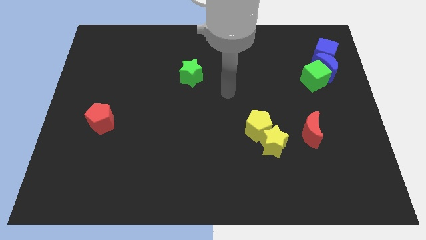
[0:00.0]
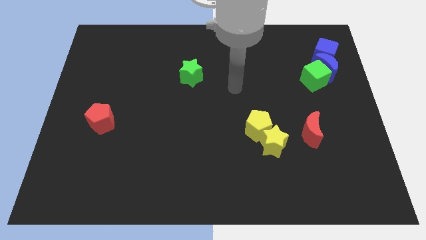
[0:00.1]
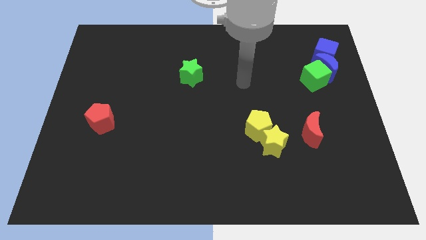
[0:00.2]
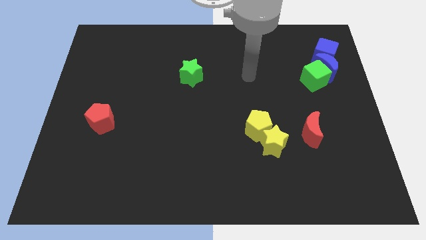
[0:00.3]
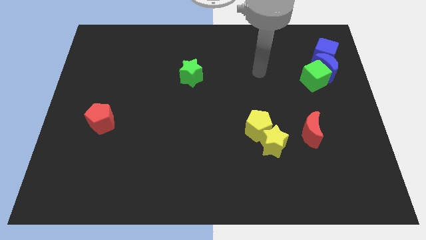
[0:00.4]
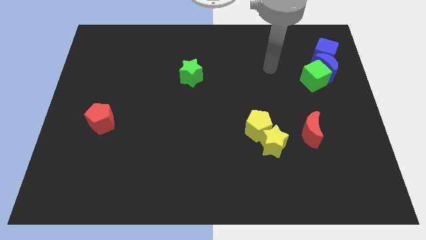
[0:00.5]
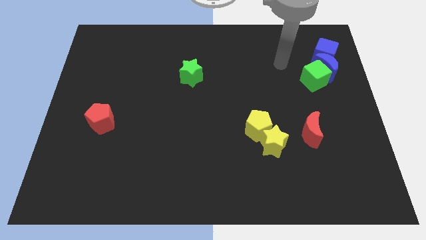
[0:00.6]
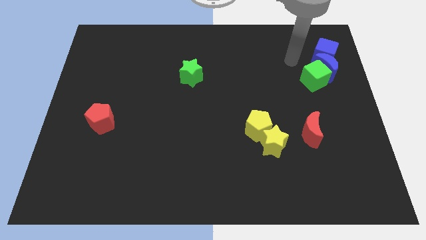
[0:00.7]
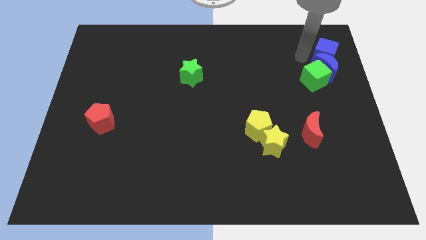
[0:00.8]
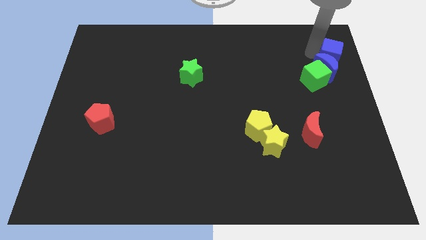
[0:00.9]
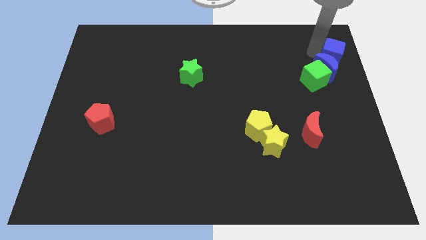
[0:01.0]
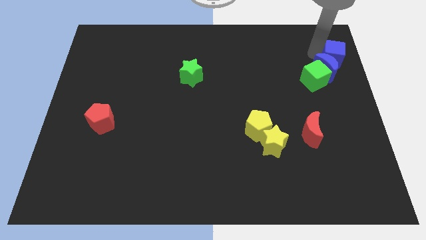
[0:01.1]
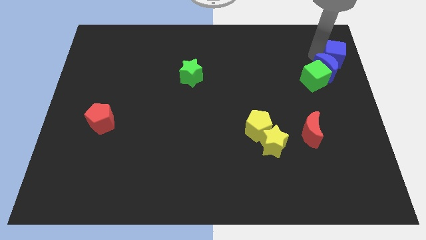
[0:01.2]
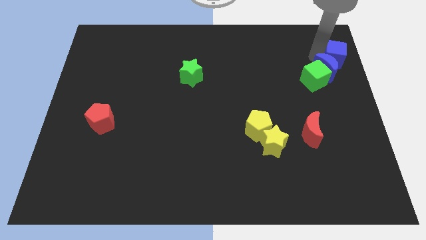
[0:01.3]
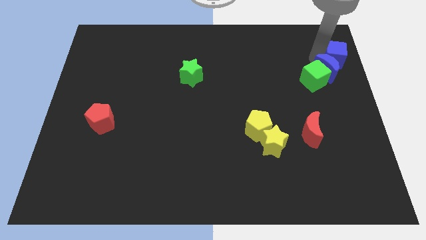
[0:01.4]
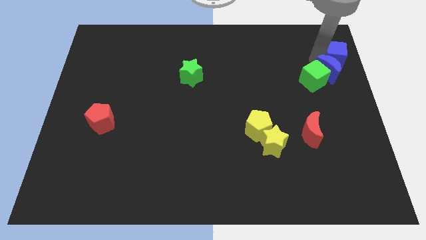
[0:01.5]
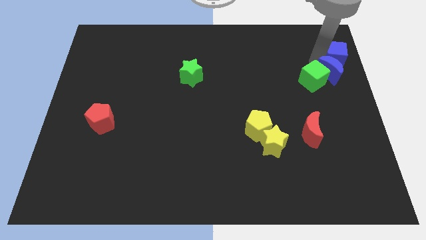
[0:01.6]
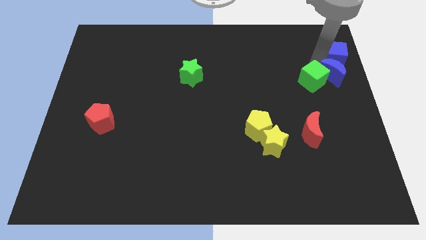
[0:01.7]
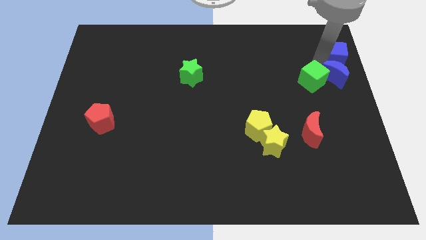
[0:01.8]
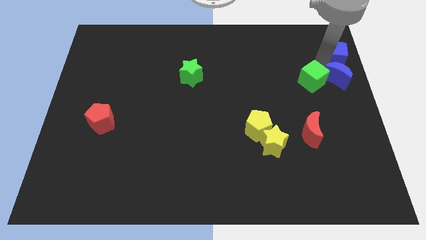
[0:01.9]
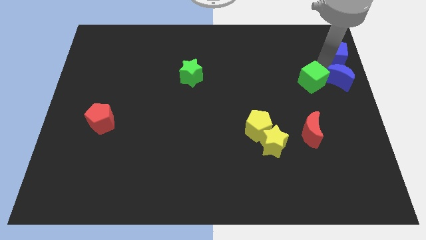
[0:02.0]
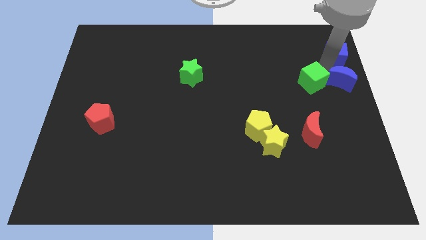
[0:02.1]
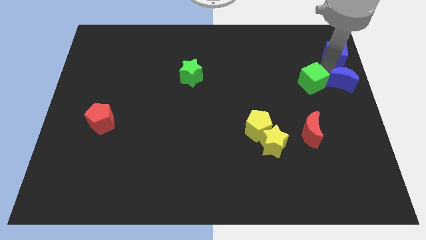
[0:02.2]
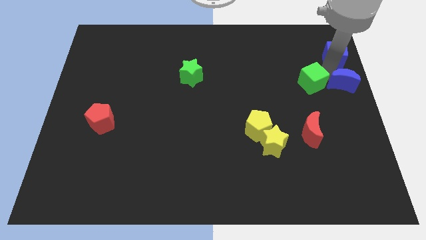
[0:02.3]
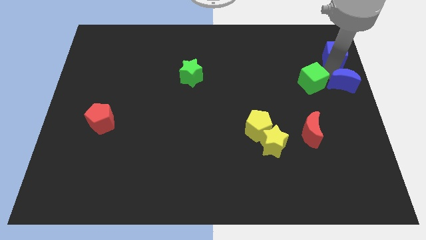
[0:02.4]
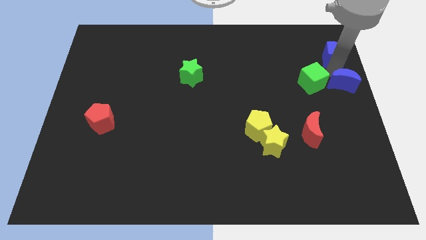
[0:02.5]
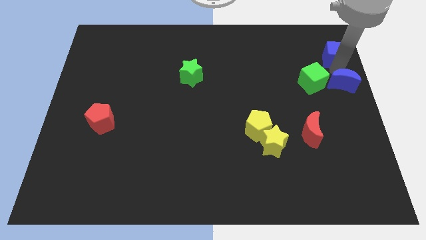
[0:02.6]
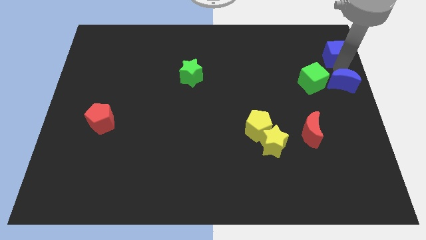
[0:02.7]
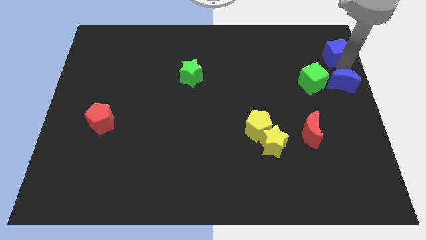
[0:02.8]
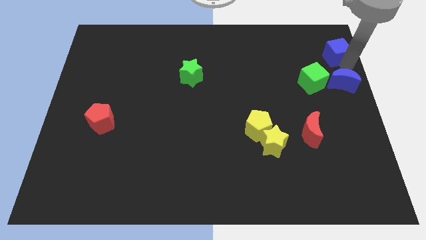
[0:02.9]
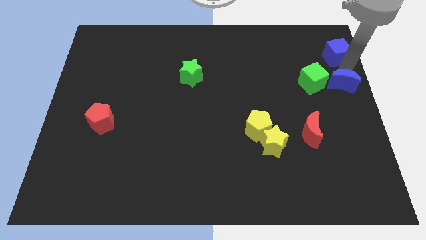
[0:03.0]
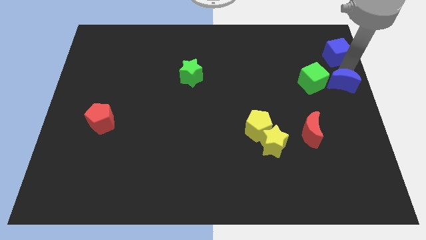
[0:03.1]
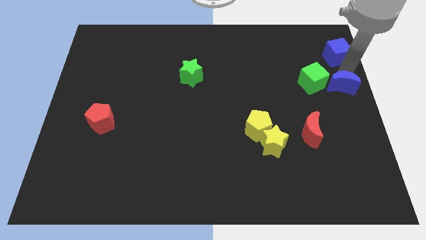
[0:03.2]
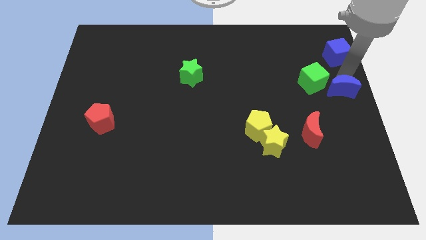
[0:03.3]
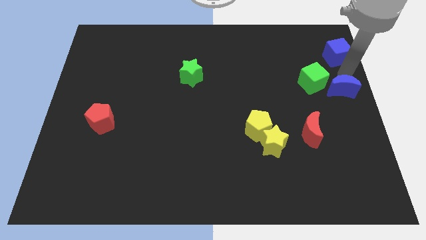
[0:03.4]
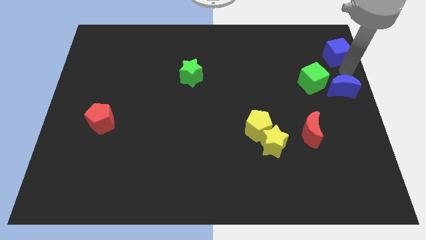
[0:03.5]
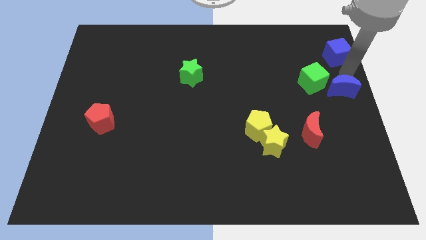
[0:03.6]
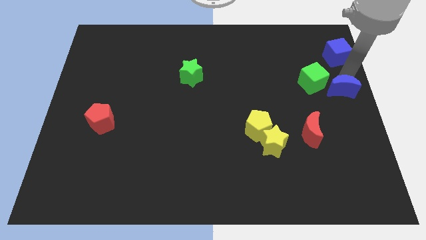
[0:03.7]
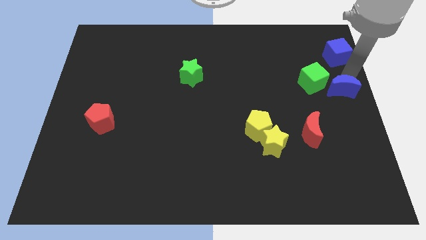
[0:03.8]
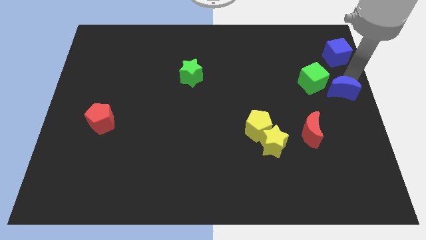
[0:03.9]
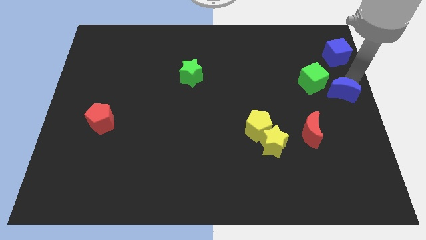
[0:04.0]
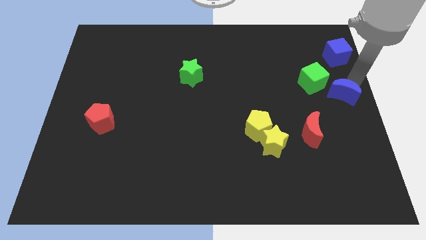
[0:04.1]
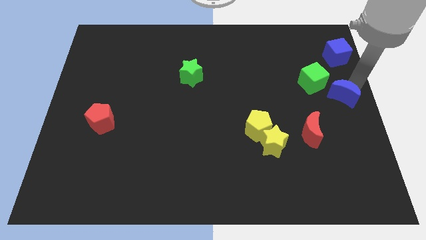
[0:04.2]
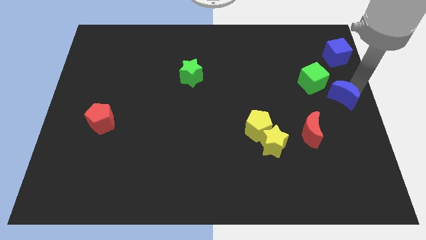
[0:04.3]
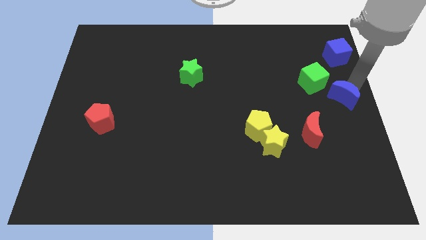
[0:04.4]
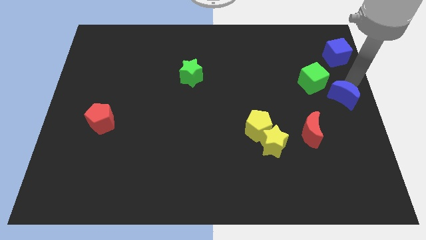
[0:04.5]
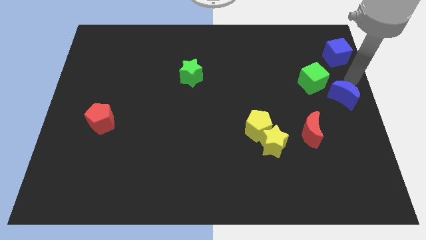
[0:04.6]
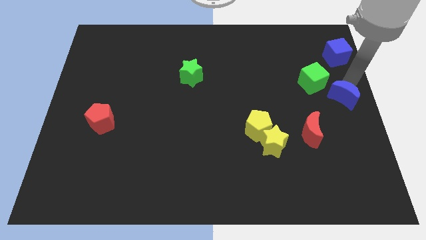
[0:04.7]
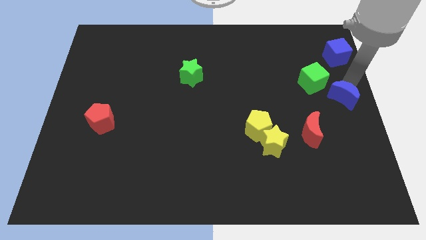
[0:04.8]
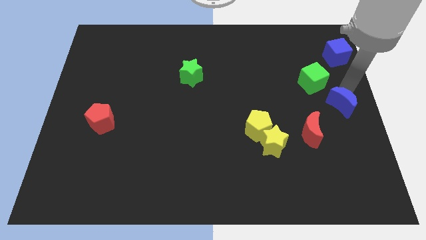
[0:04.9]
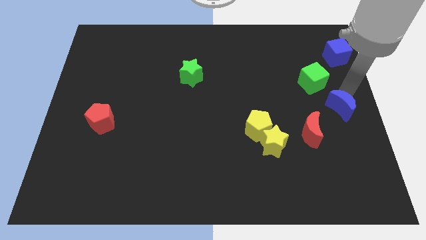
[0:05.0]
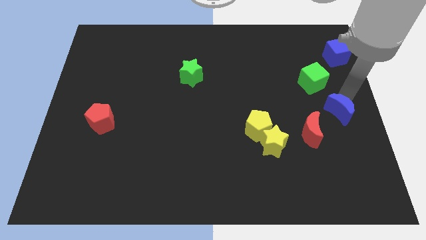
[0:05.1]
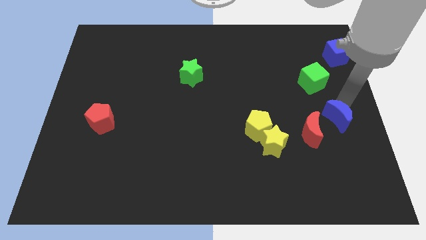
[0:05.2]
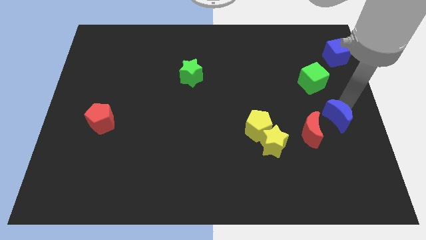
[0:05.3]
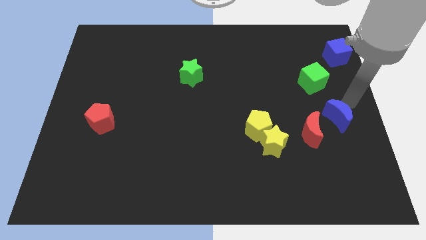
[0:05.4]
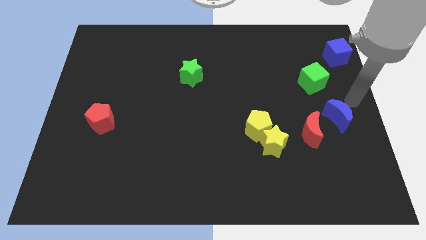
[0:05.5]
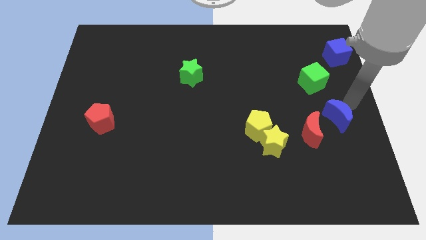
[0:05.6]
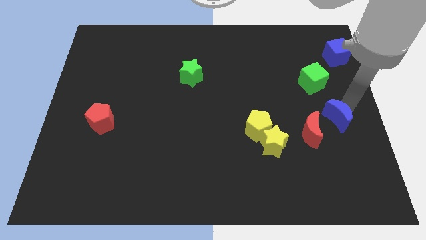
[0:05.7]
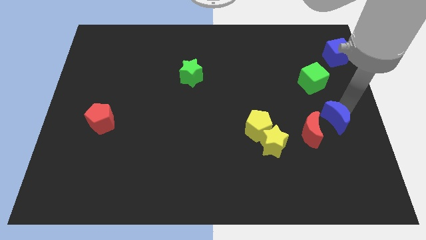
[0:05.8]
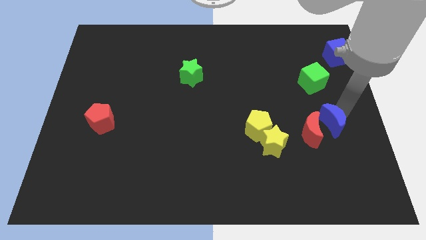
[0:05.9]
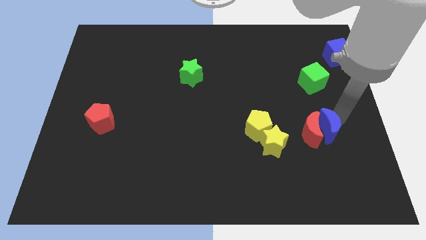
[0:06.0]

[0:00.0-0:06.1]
slide the blue moon just right of the yellow pentagon
